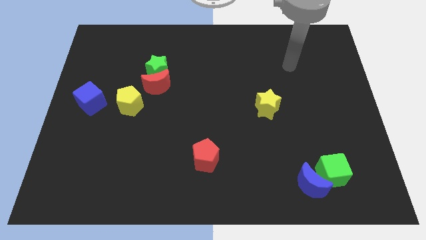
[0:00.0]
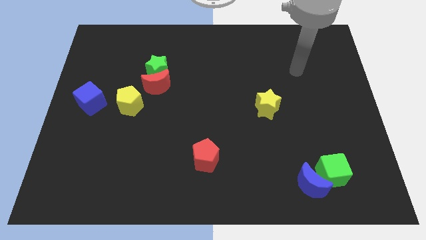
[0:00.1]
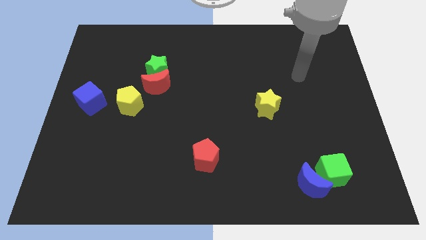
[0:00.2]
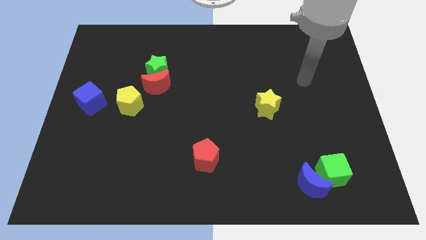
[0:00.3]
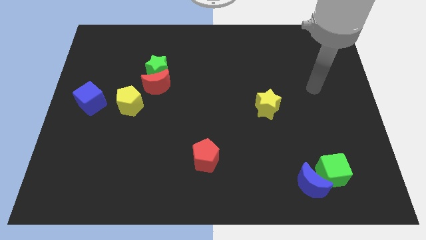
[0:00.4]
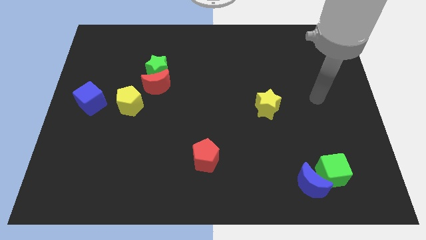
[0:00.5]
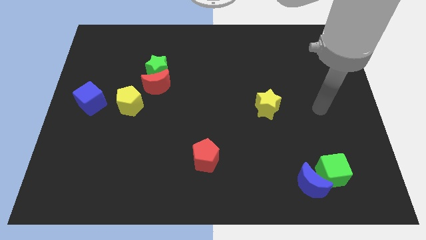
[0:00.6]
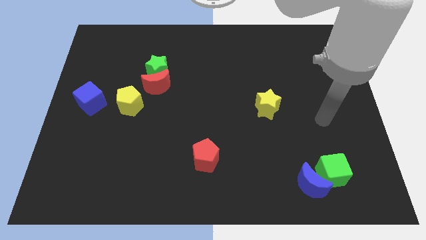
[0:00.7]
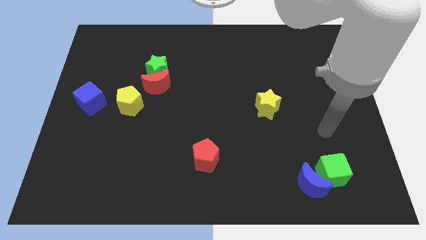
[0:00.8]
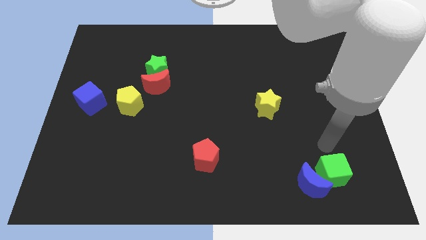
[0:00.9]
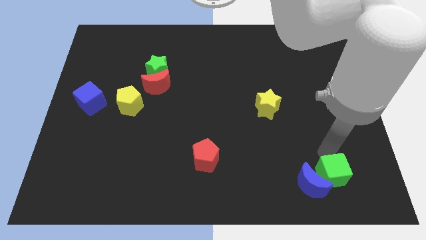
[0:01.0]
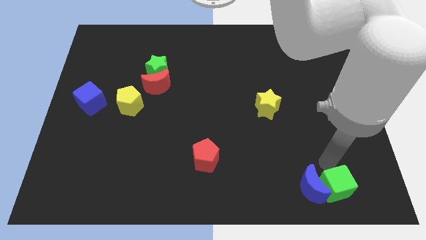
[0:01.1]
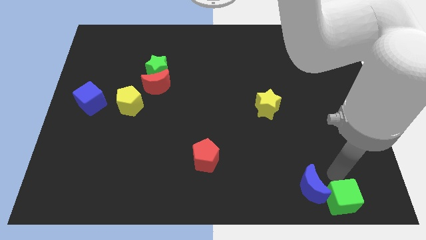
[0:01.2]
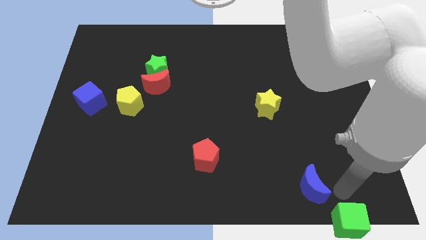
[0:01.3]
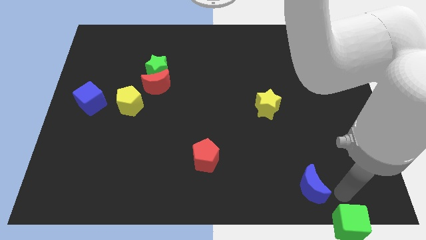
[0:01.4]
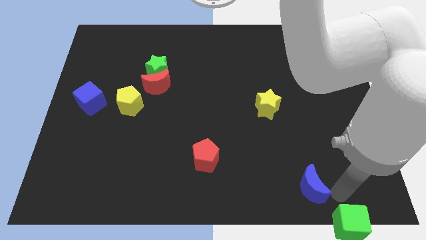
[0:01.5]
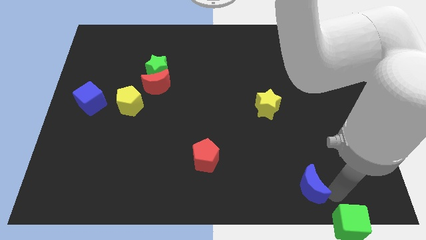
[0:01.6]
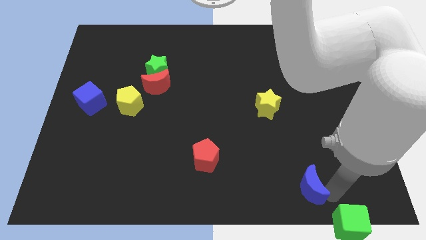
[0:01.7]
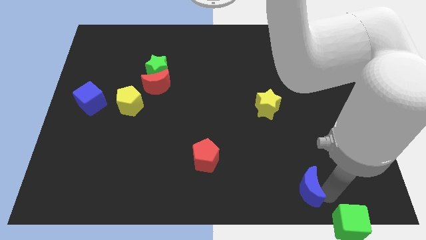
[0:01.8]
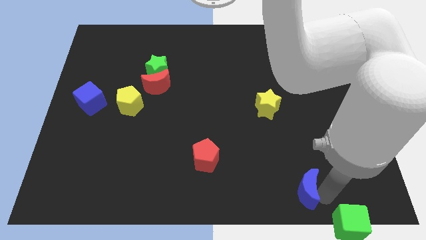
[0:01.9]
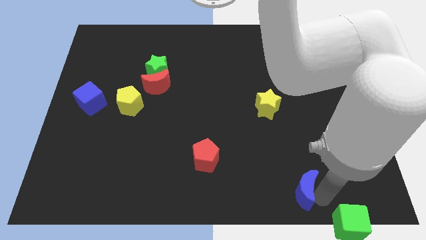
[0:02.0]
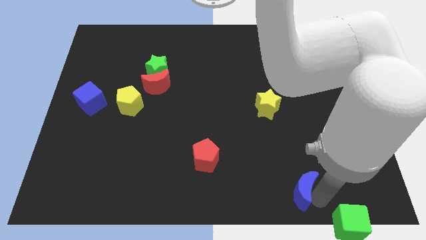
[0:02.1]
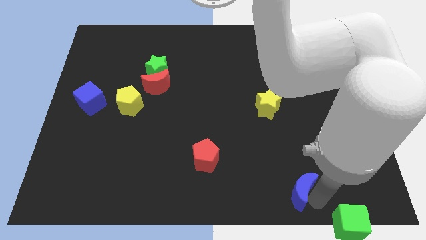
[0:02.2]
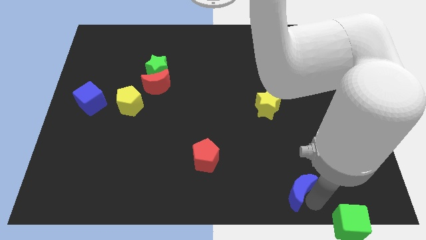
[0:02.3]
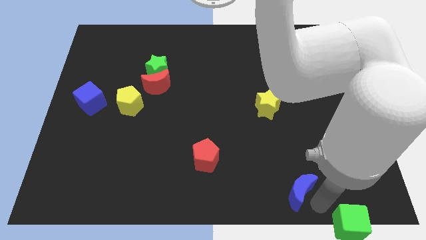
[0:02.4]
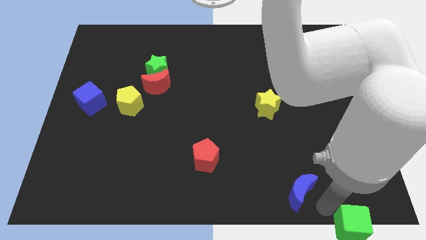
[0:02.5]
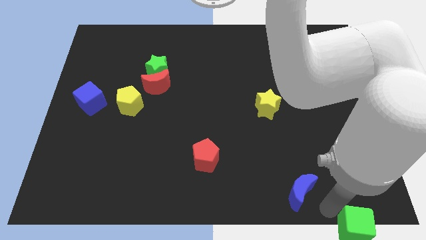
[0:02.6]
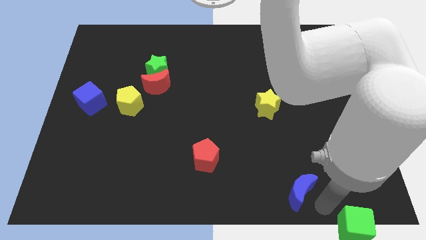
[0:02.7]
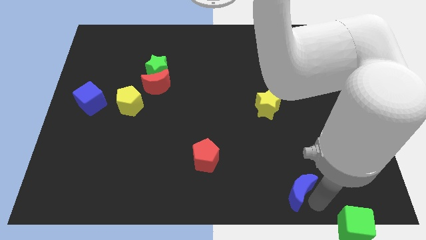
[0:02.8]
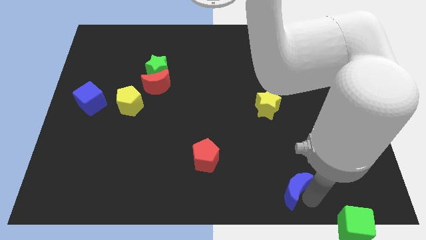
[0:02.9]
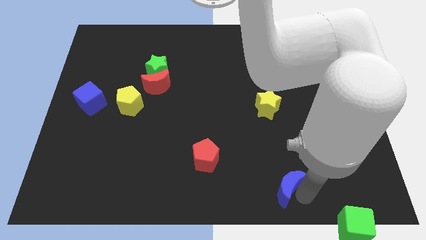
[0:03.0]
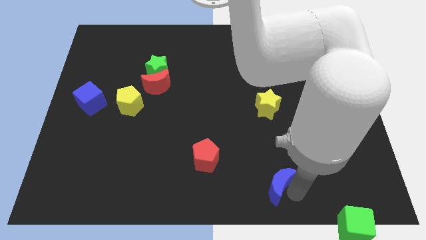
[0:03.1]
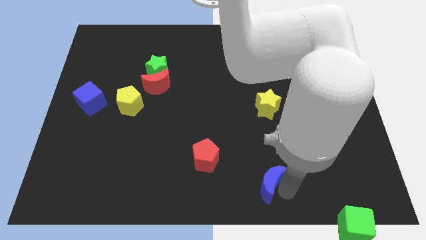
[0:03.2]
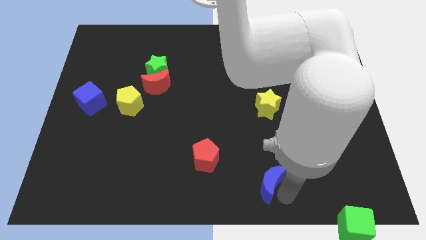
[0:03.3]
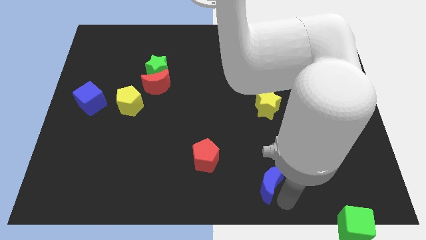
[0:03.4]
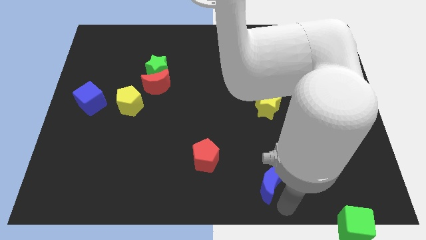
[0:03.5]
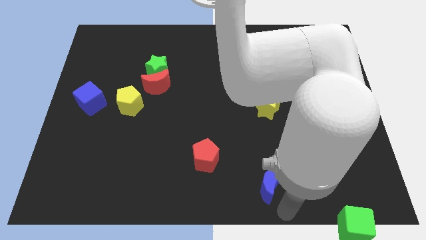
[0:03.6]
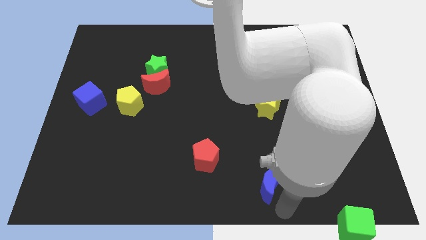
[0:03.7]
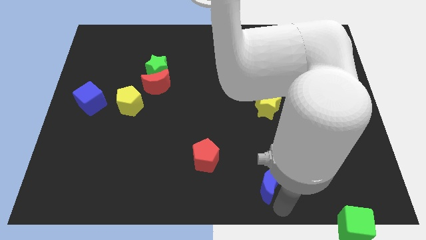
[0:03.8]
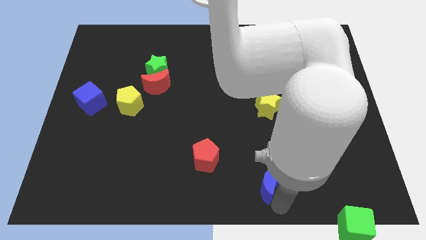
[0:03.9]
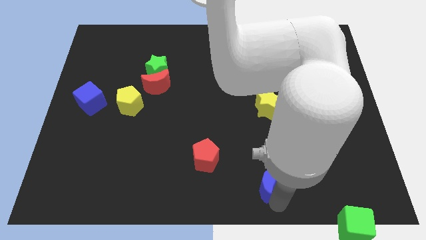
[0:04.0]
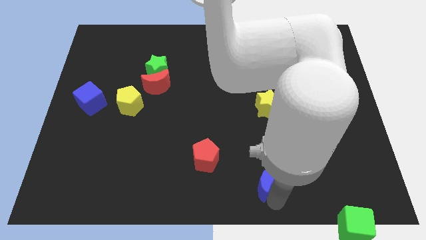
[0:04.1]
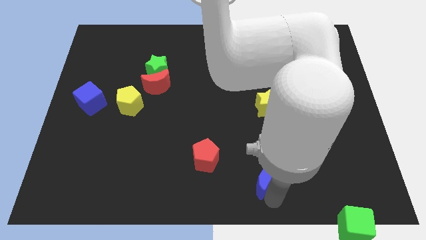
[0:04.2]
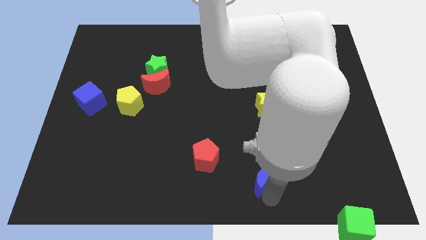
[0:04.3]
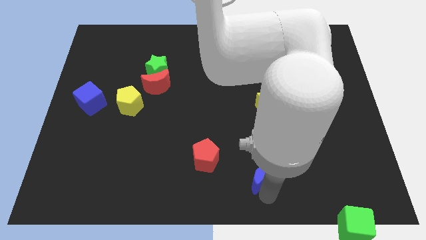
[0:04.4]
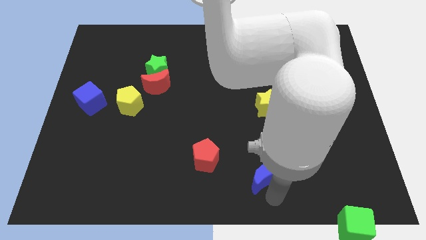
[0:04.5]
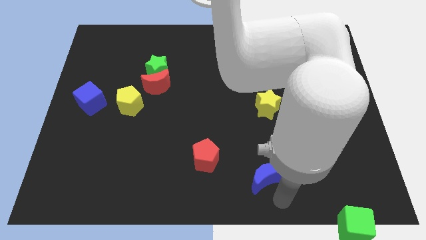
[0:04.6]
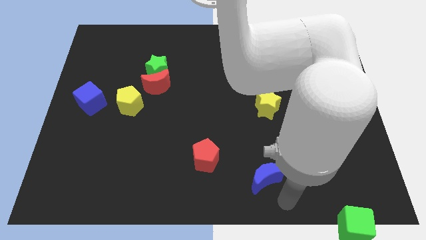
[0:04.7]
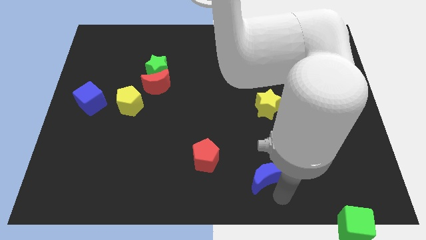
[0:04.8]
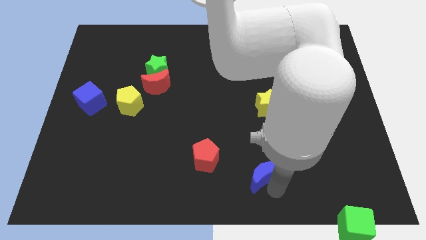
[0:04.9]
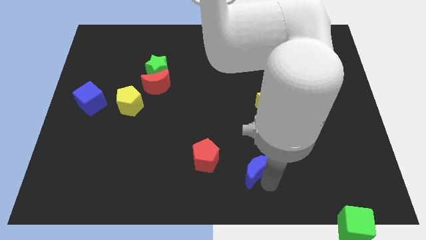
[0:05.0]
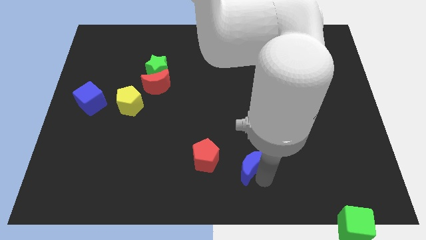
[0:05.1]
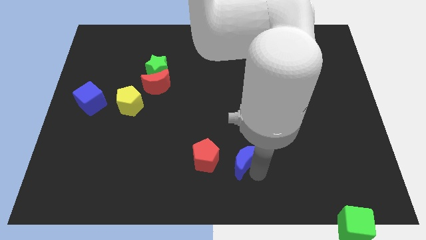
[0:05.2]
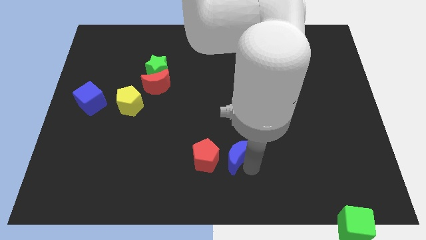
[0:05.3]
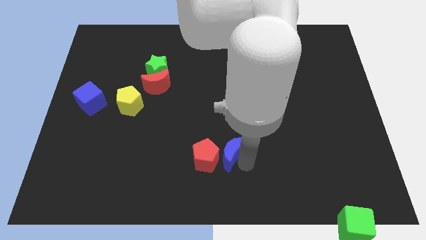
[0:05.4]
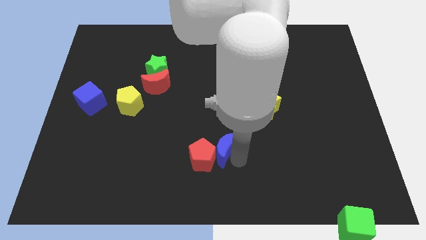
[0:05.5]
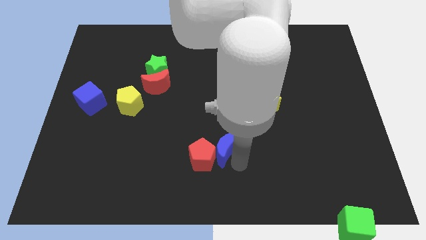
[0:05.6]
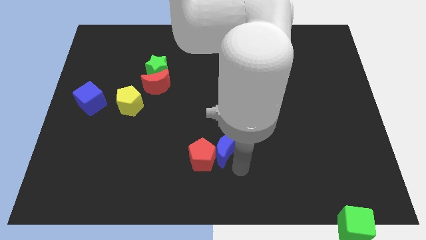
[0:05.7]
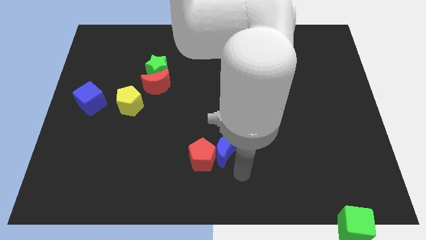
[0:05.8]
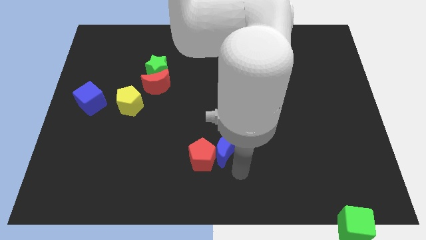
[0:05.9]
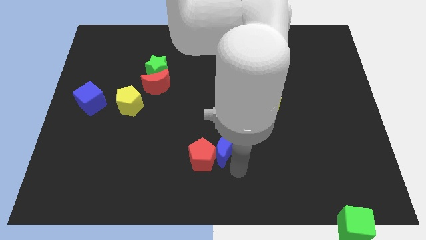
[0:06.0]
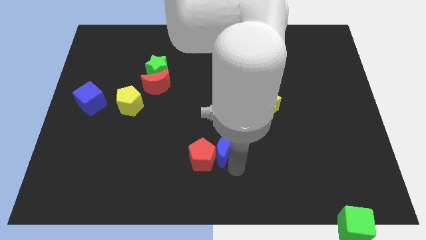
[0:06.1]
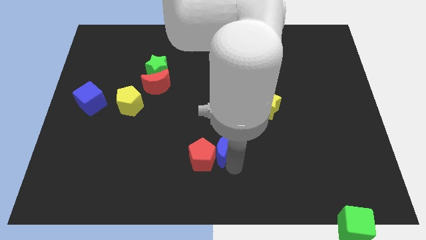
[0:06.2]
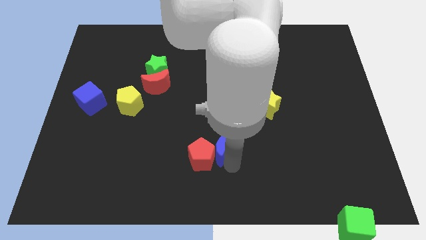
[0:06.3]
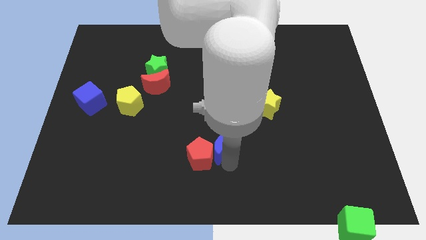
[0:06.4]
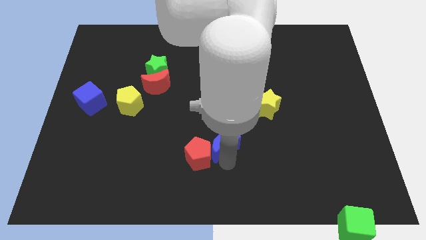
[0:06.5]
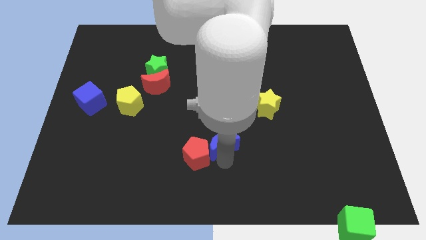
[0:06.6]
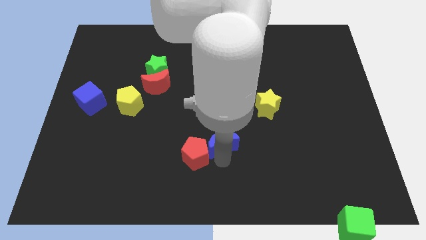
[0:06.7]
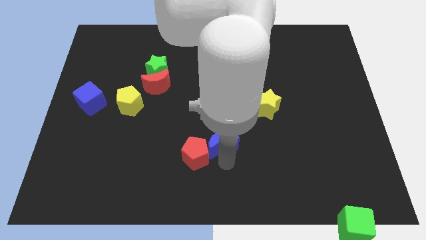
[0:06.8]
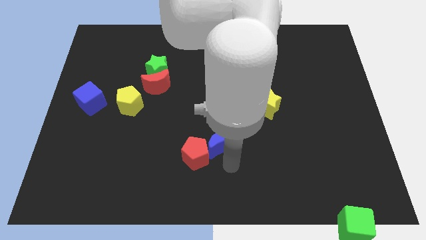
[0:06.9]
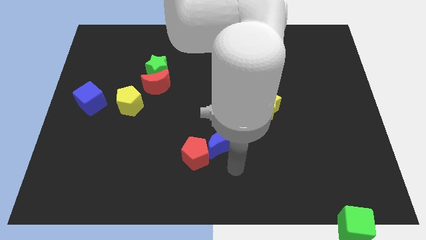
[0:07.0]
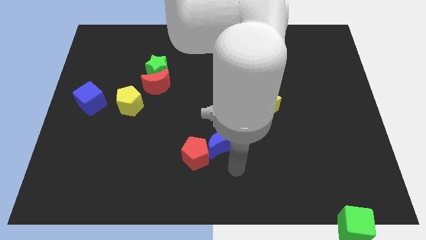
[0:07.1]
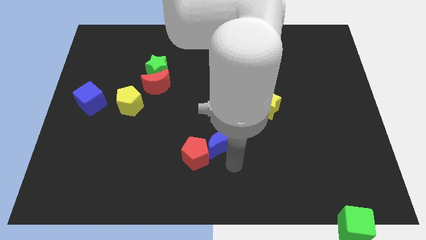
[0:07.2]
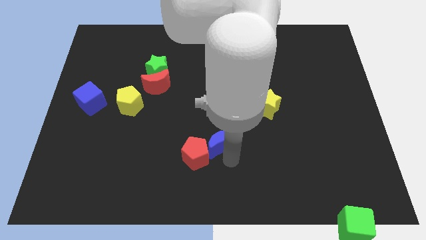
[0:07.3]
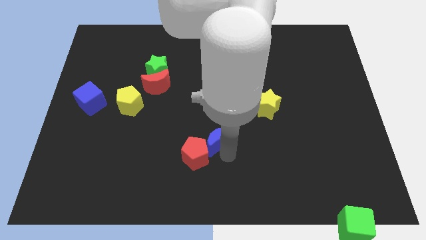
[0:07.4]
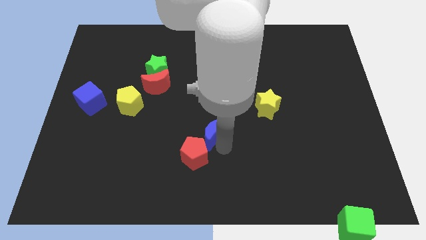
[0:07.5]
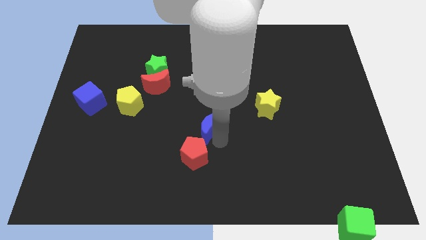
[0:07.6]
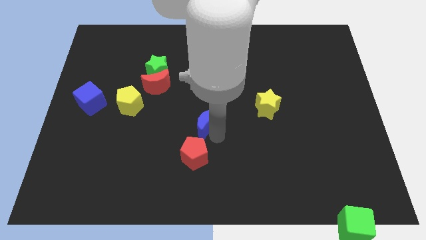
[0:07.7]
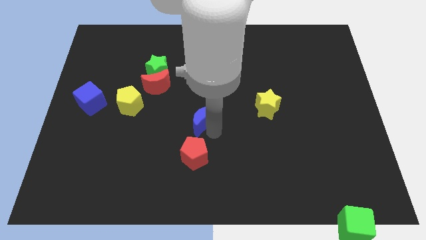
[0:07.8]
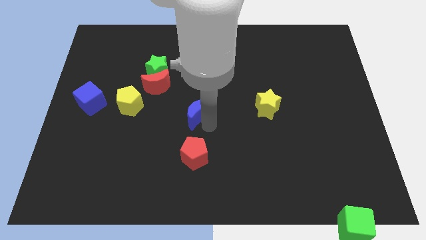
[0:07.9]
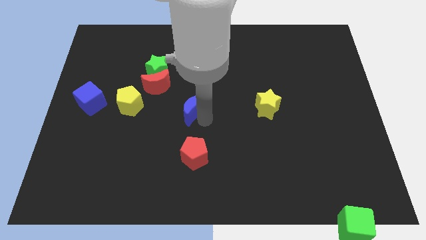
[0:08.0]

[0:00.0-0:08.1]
push the blue moon to the bottom right side of the red moon
